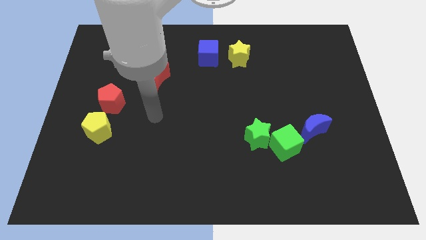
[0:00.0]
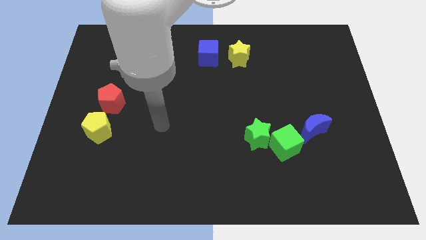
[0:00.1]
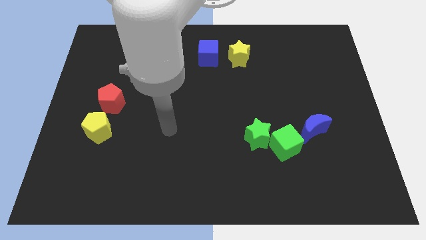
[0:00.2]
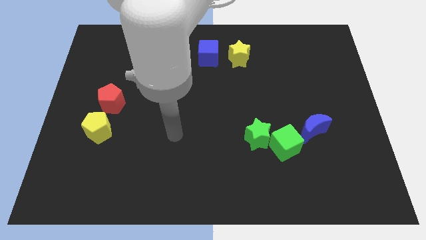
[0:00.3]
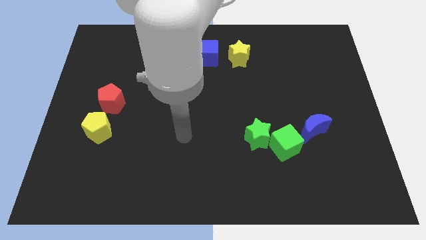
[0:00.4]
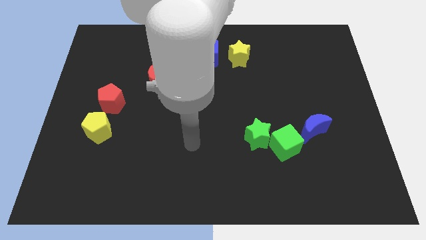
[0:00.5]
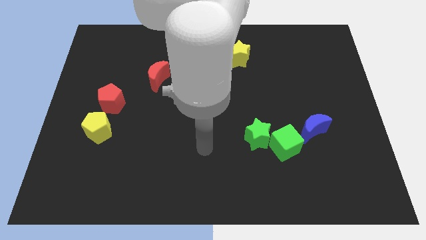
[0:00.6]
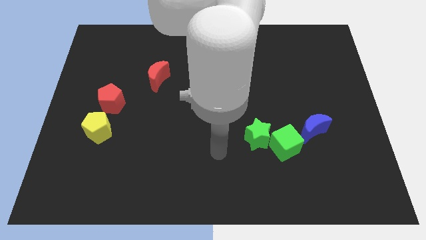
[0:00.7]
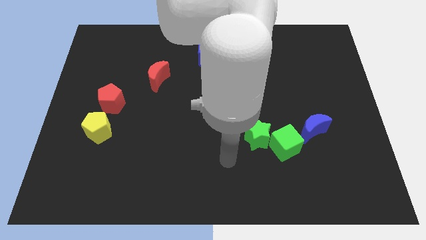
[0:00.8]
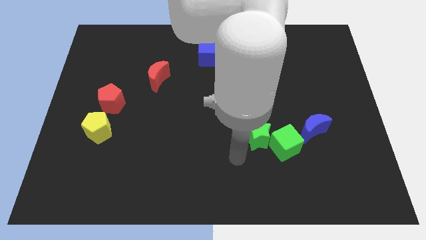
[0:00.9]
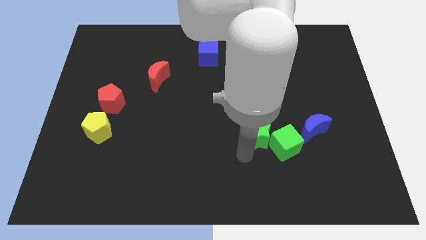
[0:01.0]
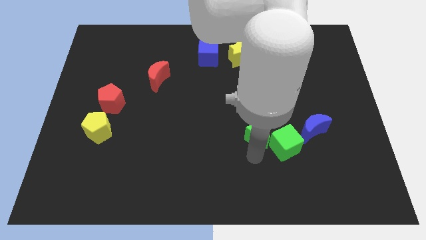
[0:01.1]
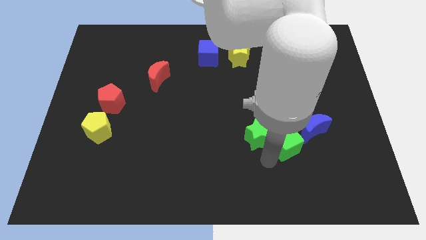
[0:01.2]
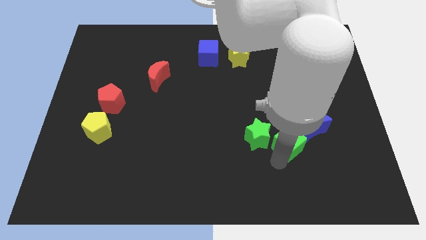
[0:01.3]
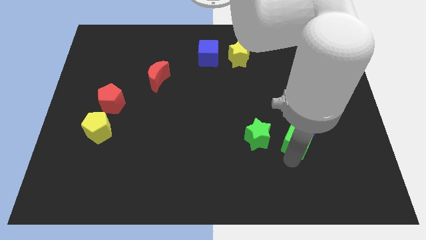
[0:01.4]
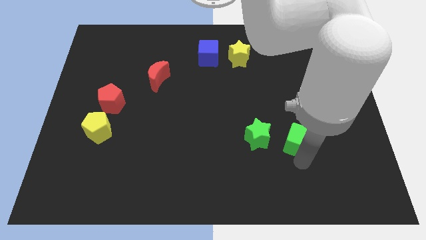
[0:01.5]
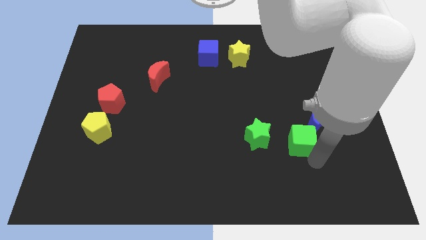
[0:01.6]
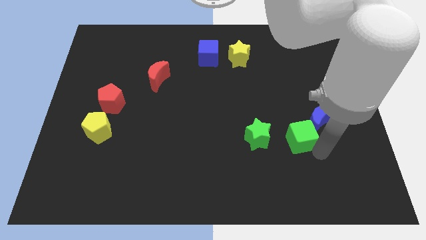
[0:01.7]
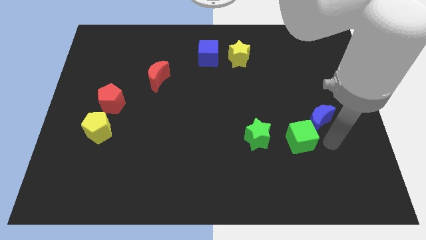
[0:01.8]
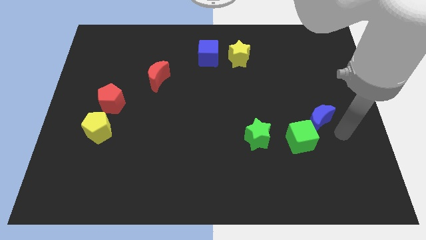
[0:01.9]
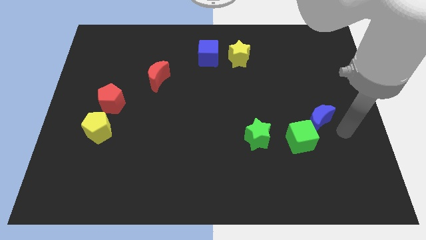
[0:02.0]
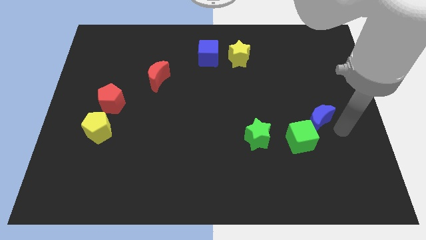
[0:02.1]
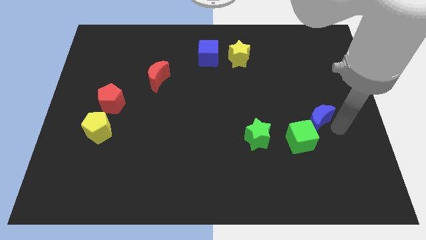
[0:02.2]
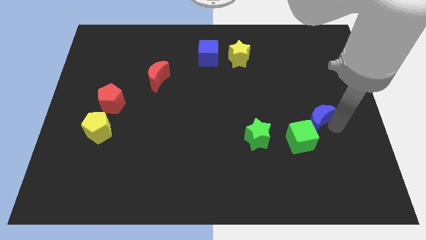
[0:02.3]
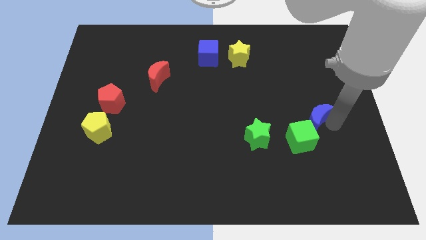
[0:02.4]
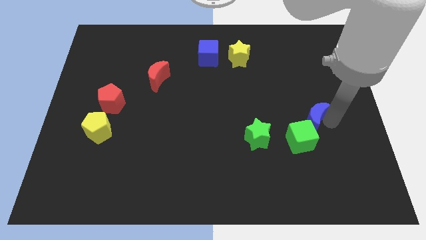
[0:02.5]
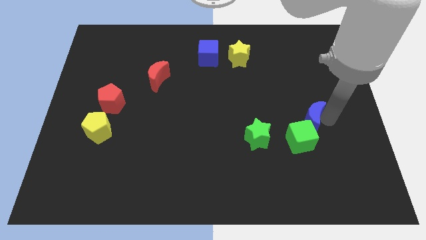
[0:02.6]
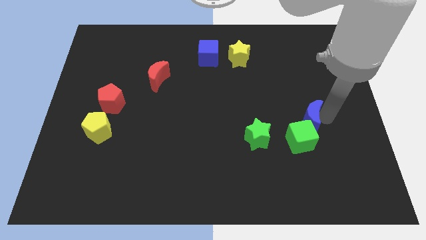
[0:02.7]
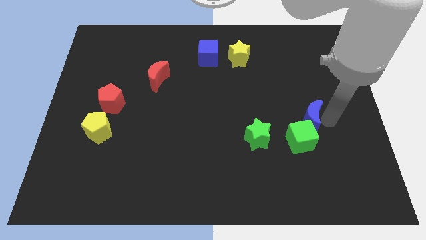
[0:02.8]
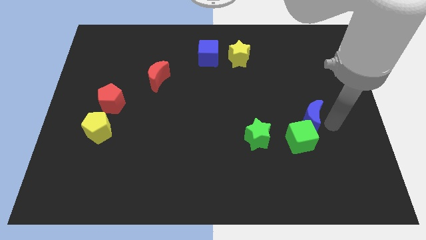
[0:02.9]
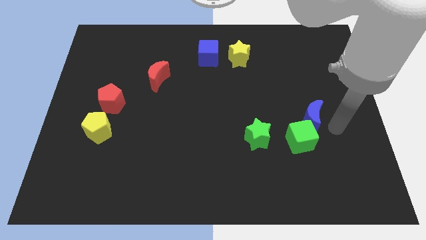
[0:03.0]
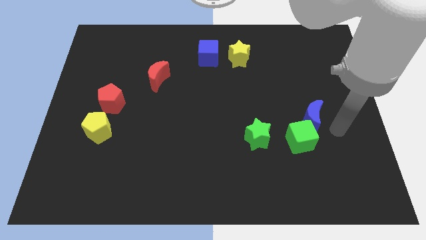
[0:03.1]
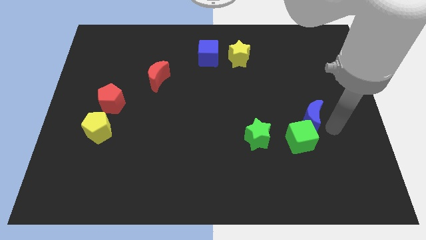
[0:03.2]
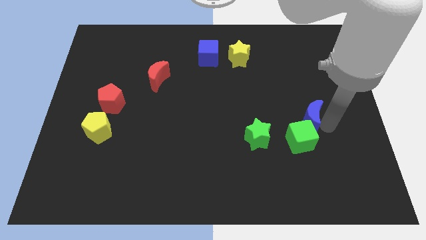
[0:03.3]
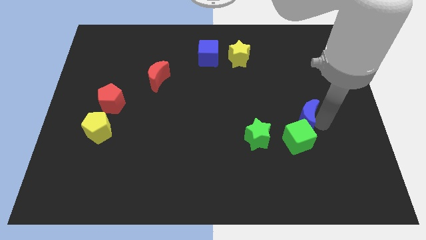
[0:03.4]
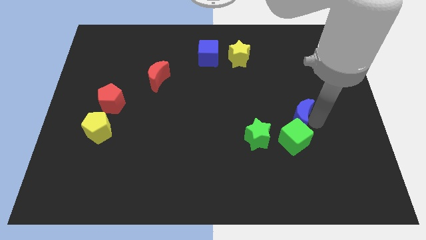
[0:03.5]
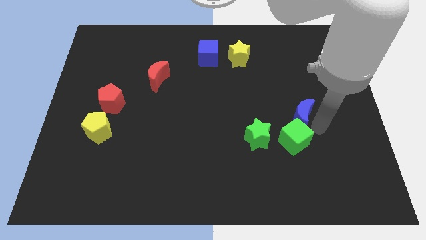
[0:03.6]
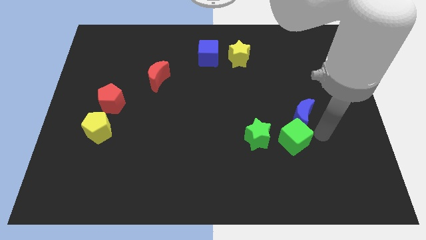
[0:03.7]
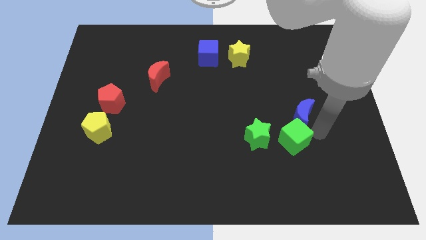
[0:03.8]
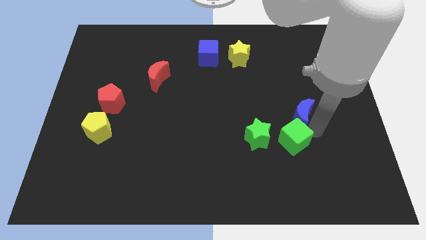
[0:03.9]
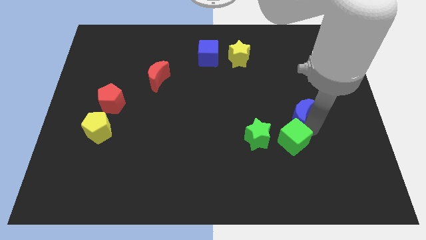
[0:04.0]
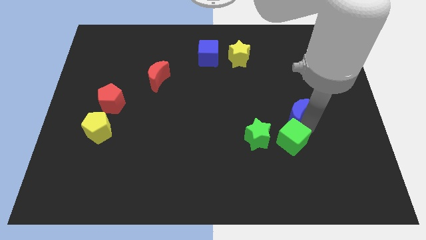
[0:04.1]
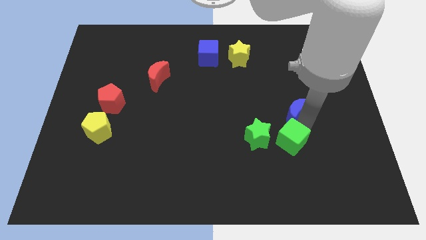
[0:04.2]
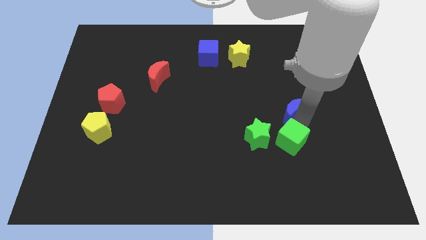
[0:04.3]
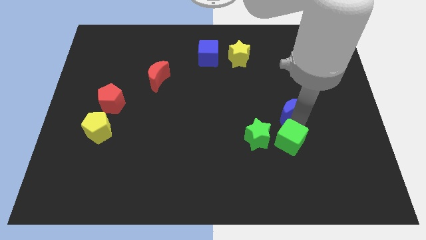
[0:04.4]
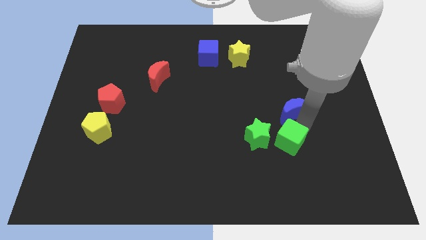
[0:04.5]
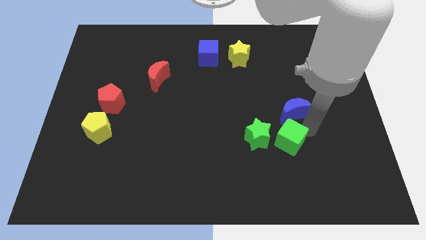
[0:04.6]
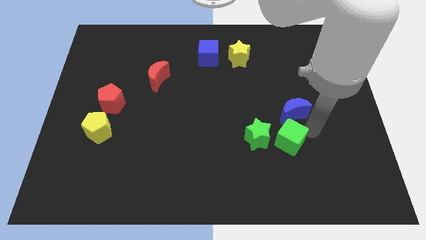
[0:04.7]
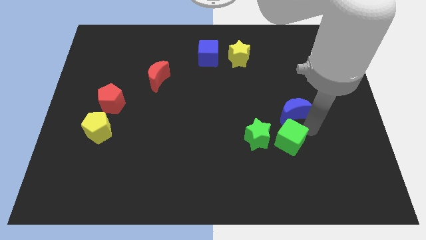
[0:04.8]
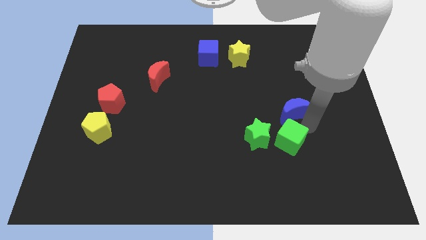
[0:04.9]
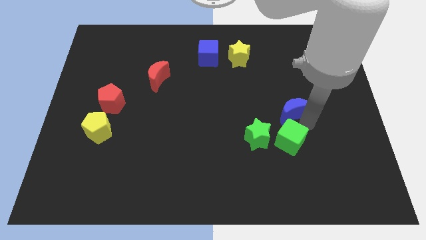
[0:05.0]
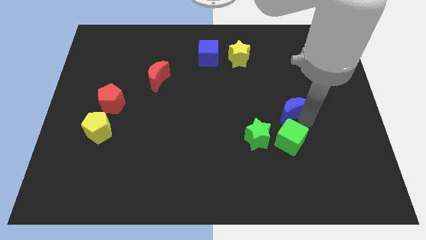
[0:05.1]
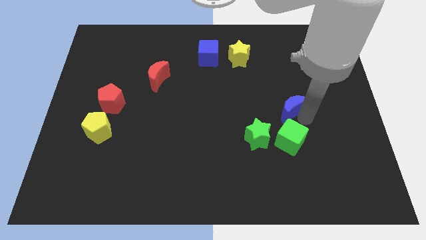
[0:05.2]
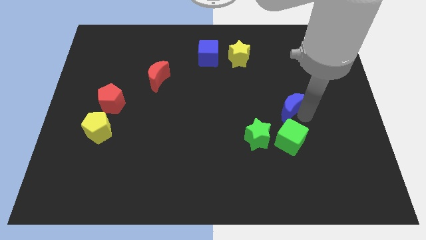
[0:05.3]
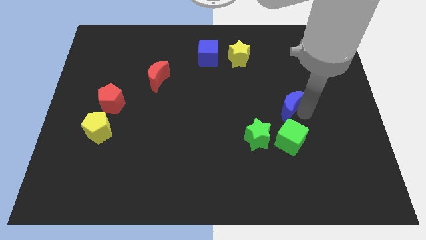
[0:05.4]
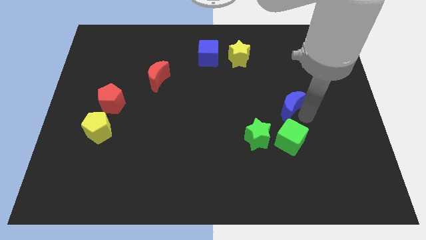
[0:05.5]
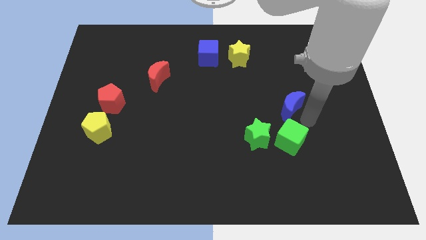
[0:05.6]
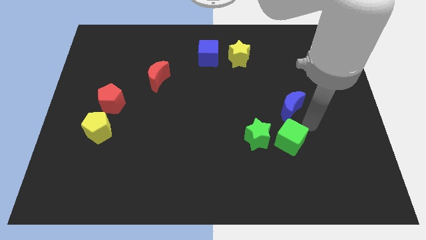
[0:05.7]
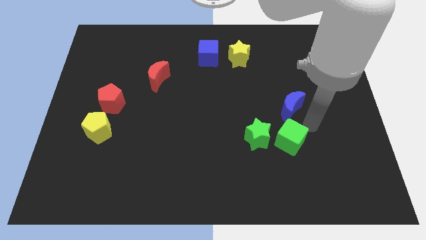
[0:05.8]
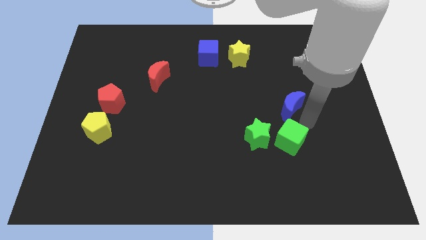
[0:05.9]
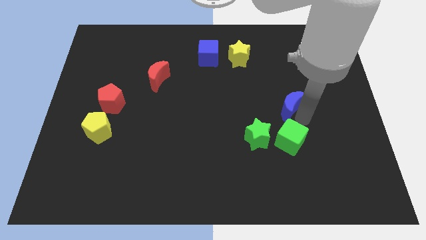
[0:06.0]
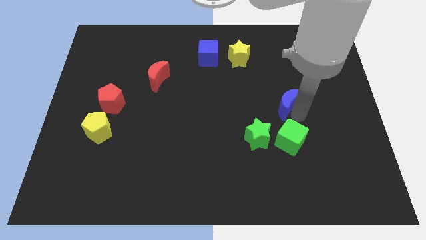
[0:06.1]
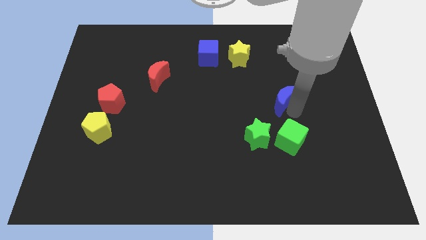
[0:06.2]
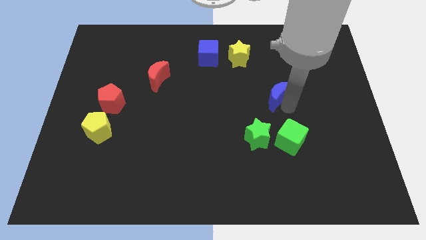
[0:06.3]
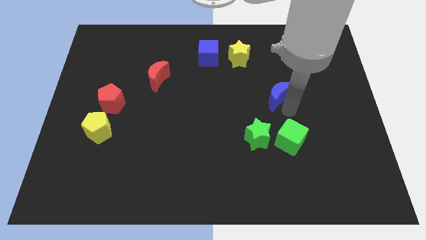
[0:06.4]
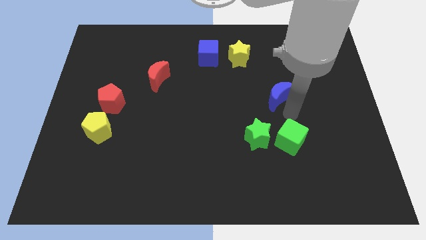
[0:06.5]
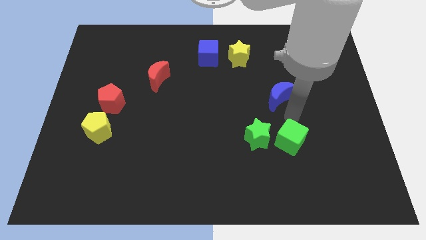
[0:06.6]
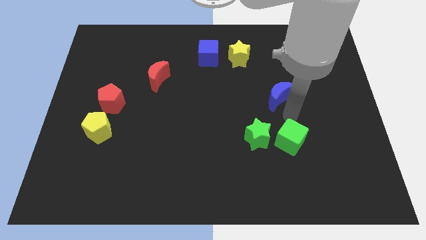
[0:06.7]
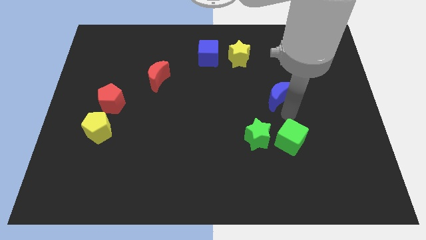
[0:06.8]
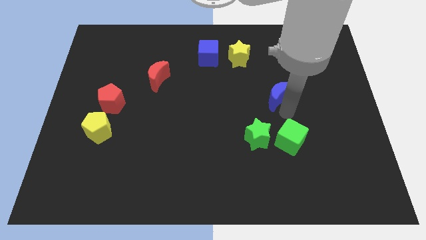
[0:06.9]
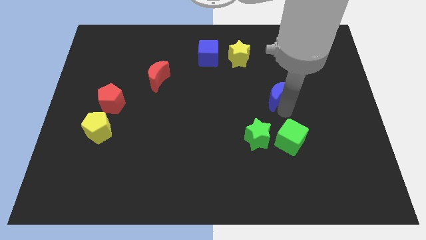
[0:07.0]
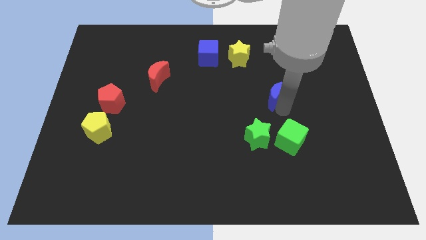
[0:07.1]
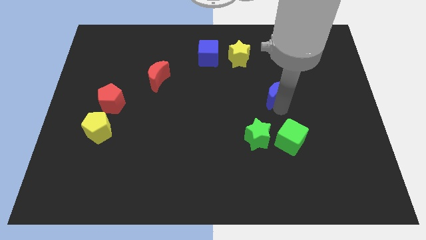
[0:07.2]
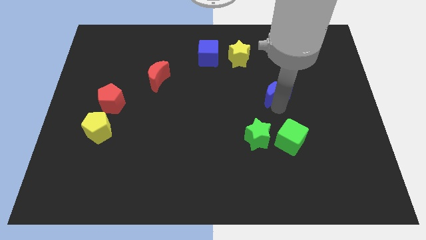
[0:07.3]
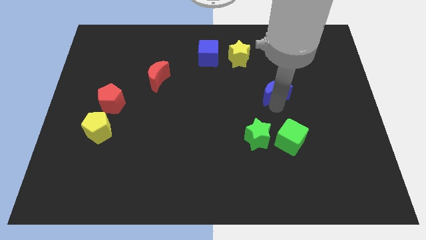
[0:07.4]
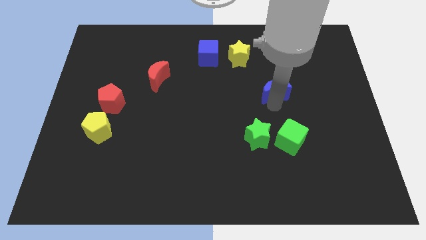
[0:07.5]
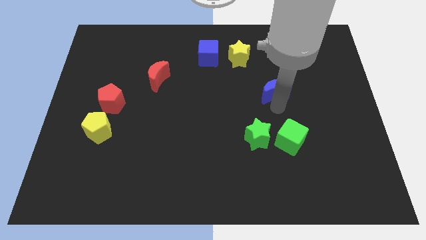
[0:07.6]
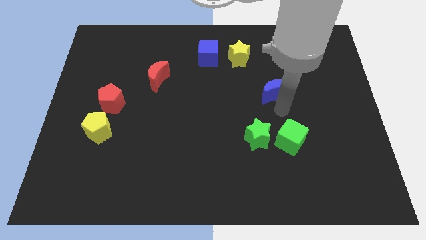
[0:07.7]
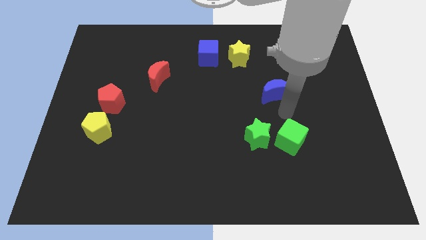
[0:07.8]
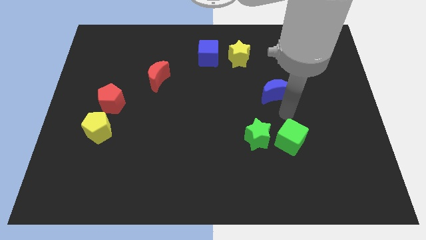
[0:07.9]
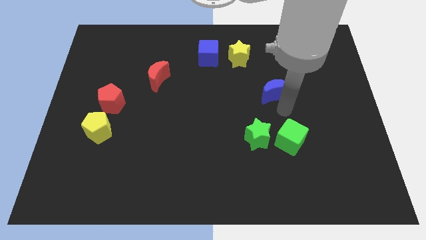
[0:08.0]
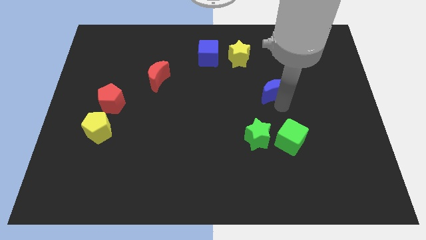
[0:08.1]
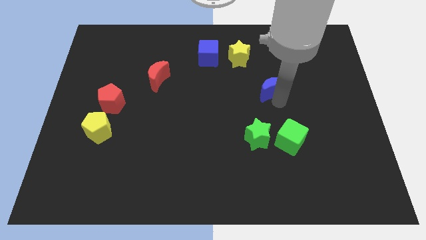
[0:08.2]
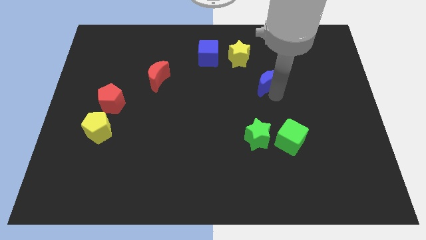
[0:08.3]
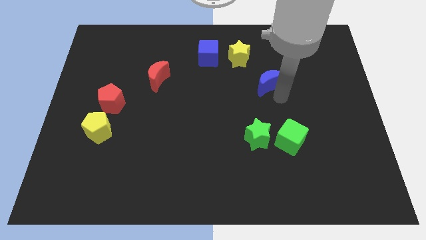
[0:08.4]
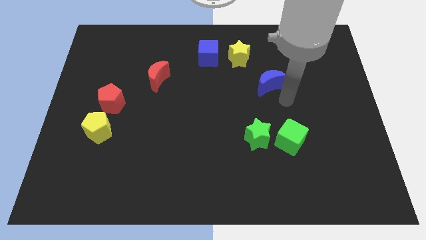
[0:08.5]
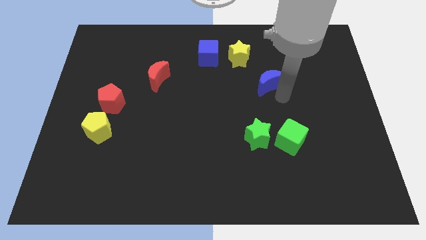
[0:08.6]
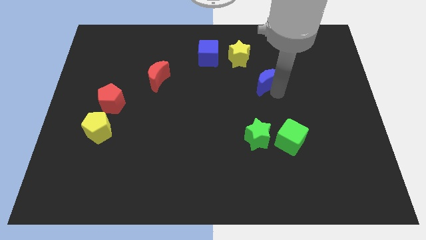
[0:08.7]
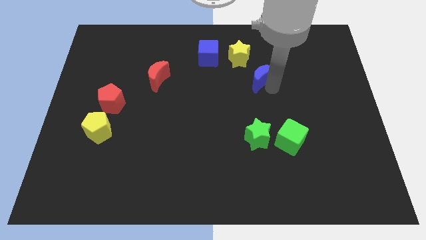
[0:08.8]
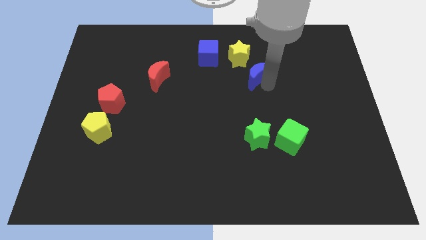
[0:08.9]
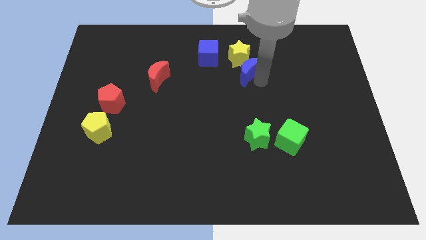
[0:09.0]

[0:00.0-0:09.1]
slide the blue moon to the yellow star
